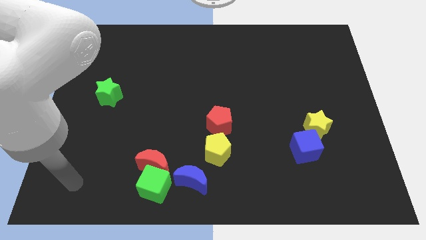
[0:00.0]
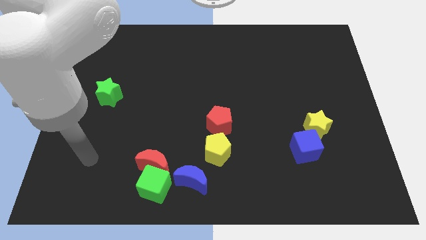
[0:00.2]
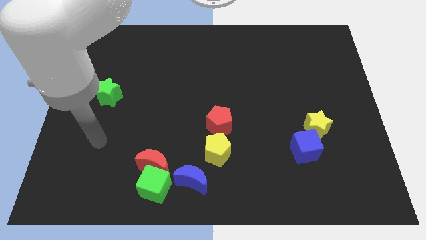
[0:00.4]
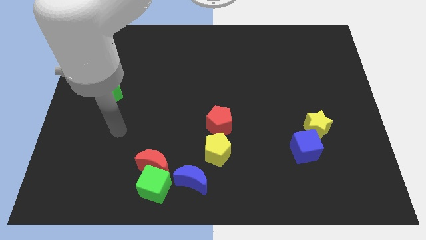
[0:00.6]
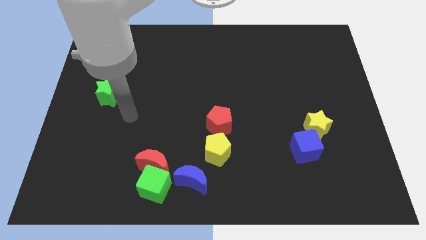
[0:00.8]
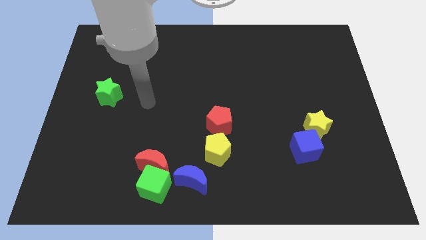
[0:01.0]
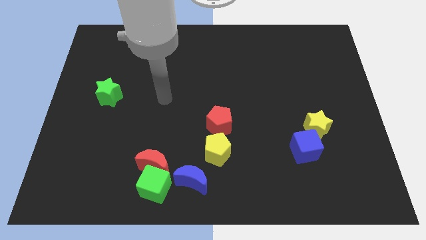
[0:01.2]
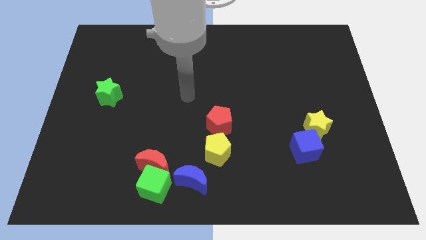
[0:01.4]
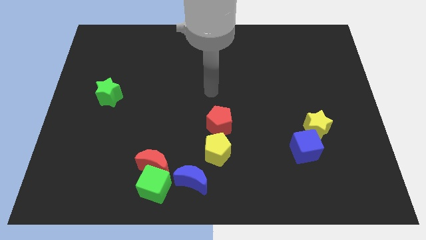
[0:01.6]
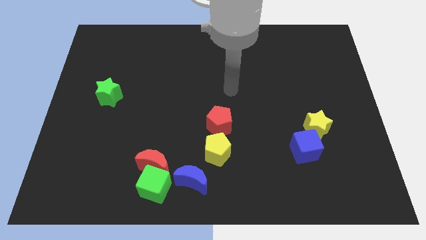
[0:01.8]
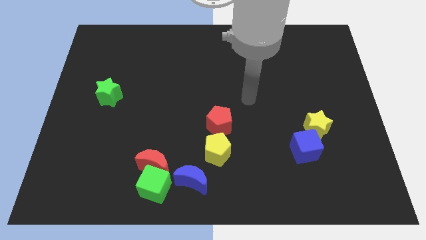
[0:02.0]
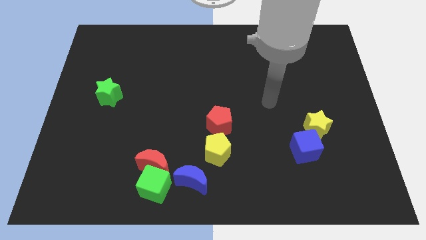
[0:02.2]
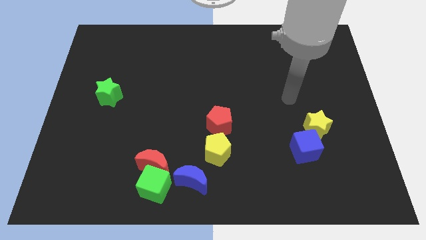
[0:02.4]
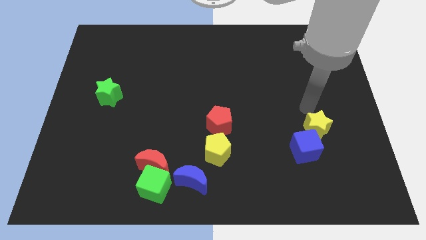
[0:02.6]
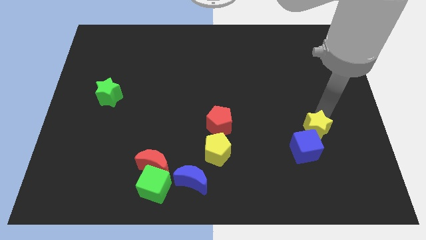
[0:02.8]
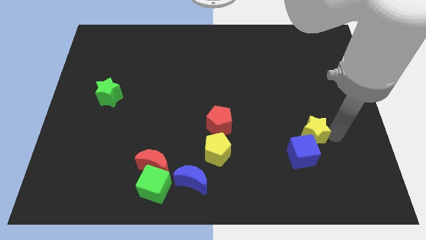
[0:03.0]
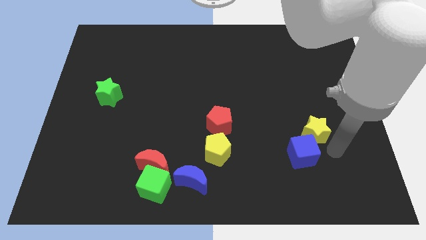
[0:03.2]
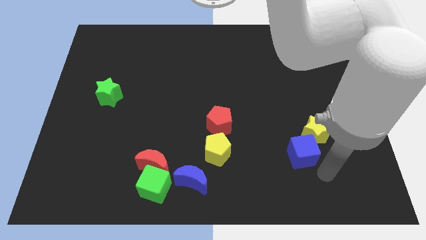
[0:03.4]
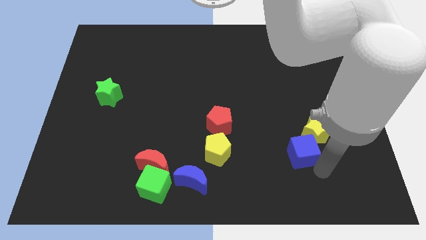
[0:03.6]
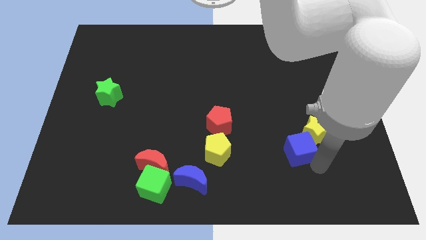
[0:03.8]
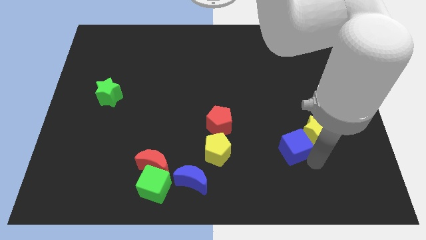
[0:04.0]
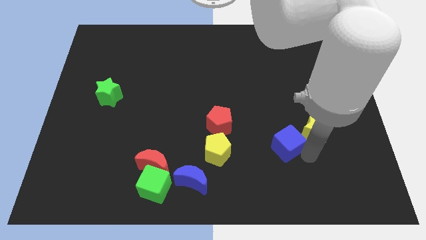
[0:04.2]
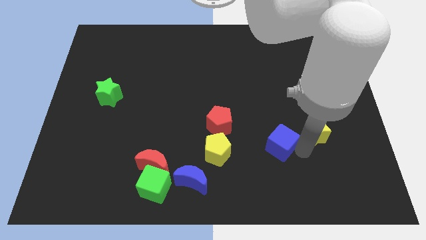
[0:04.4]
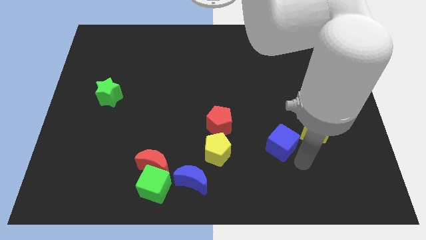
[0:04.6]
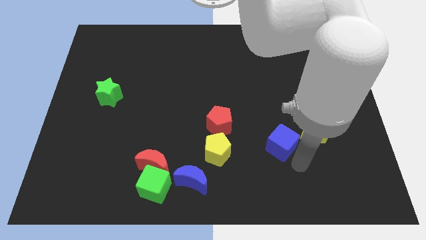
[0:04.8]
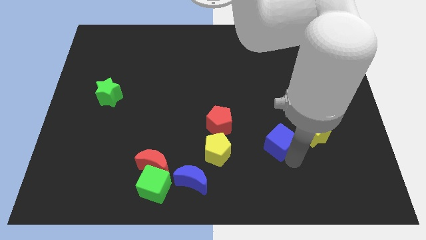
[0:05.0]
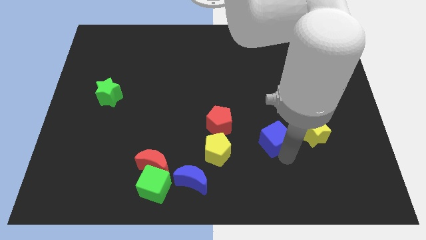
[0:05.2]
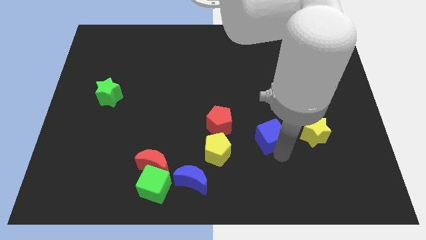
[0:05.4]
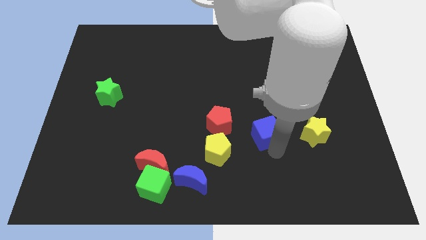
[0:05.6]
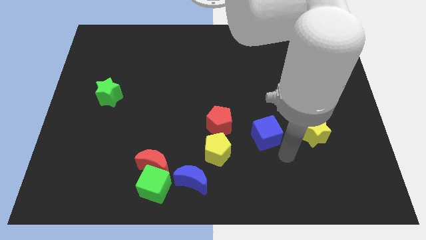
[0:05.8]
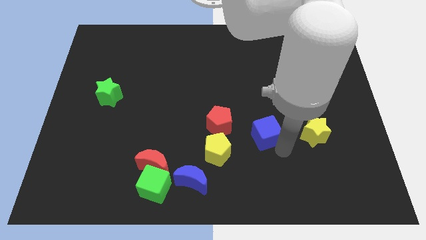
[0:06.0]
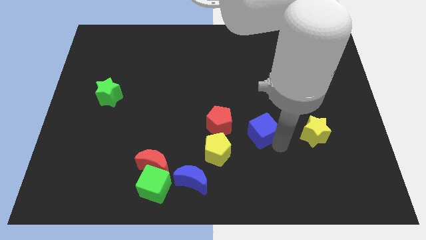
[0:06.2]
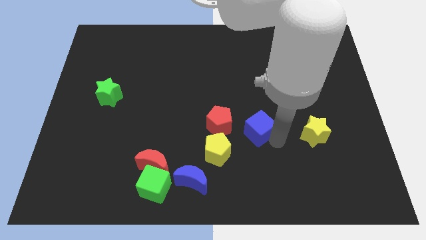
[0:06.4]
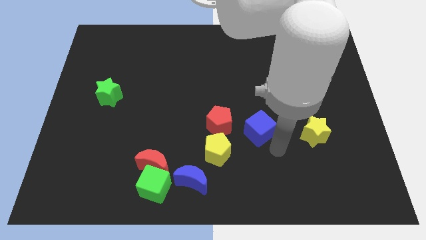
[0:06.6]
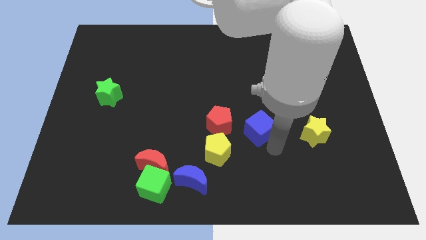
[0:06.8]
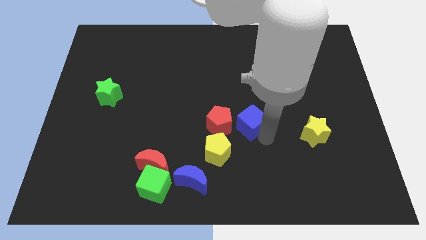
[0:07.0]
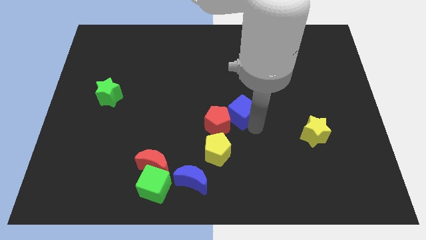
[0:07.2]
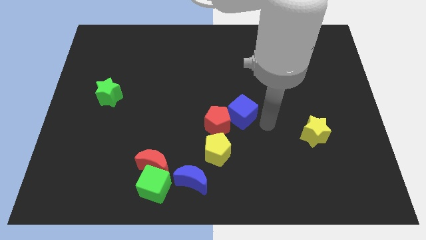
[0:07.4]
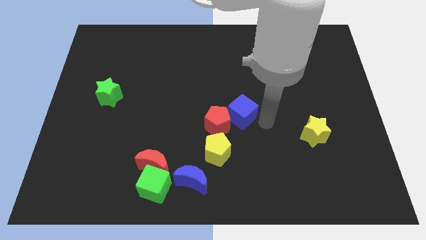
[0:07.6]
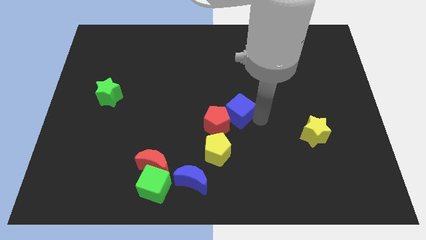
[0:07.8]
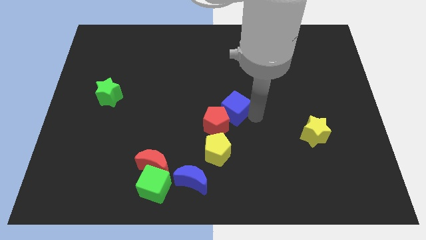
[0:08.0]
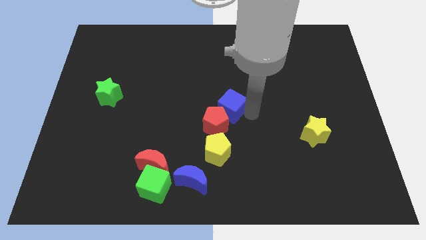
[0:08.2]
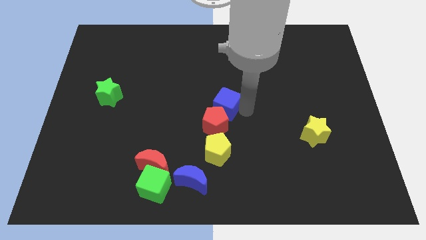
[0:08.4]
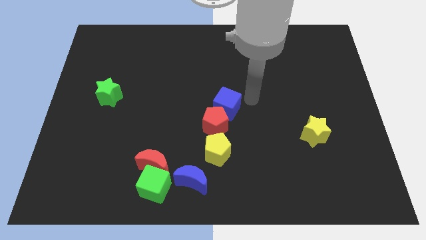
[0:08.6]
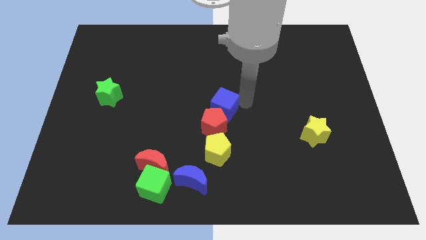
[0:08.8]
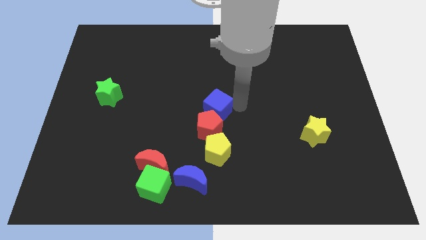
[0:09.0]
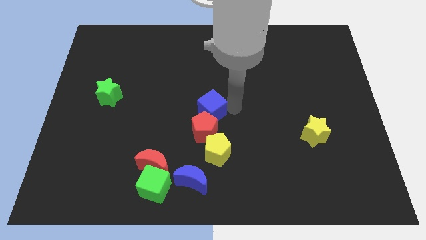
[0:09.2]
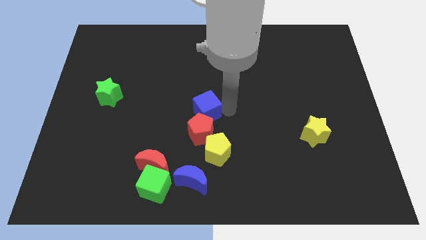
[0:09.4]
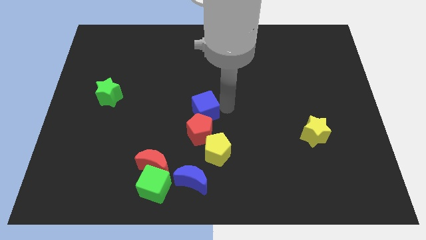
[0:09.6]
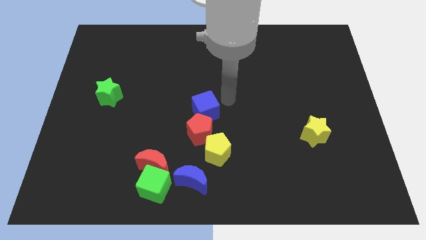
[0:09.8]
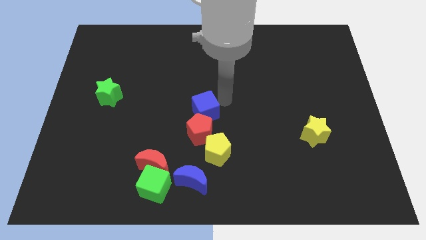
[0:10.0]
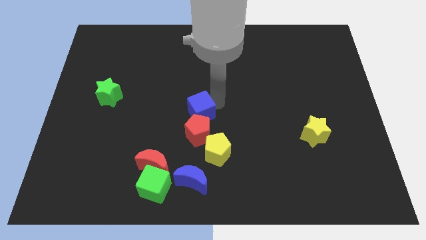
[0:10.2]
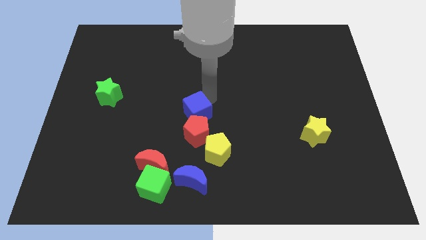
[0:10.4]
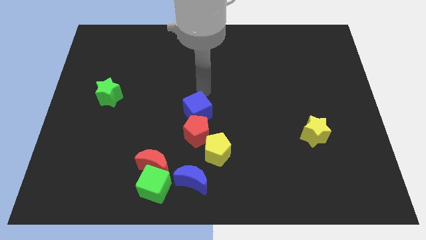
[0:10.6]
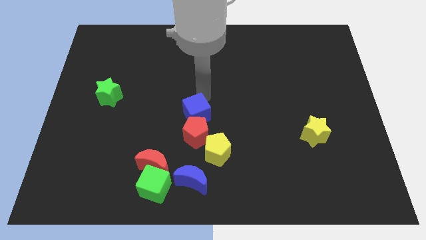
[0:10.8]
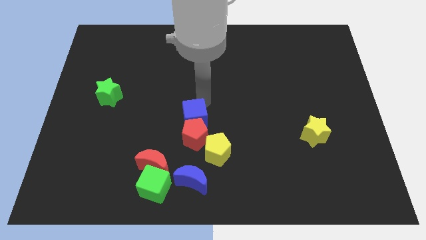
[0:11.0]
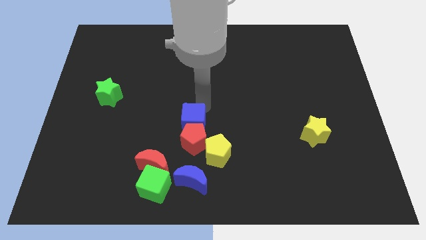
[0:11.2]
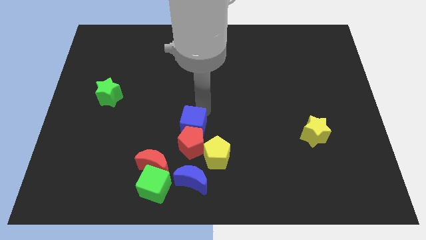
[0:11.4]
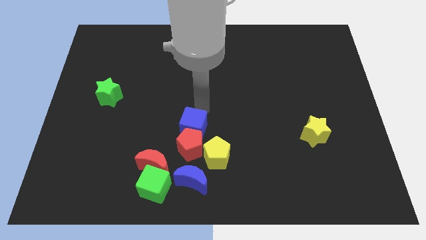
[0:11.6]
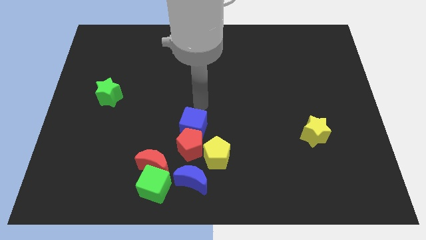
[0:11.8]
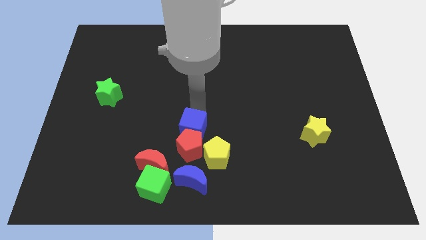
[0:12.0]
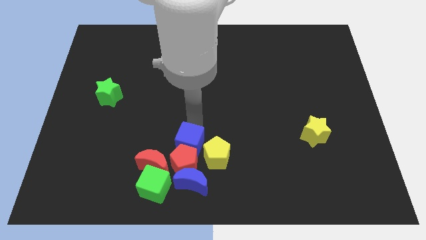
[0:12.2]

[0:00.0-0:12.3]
put the blue cube to the top right of the green cube

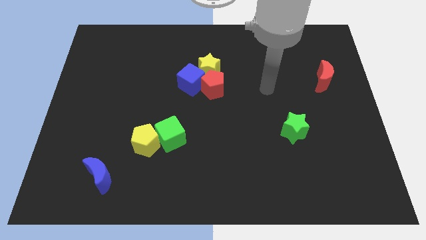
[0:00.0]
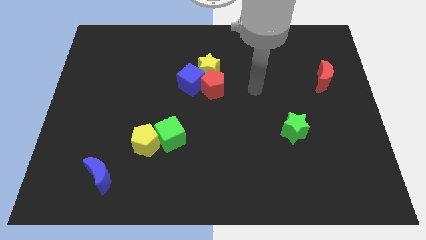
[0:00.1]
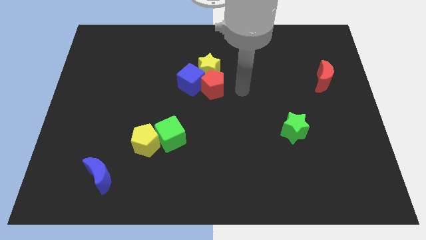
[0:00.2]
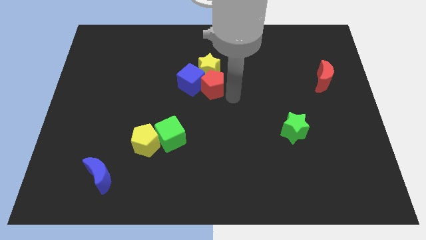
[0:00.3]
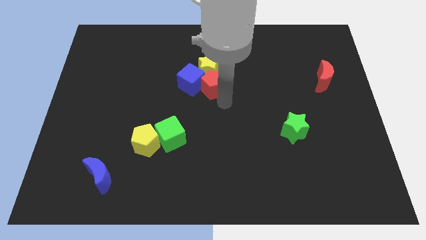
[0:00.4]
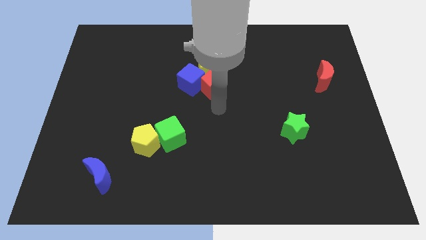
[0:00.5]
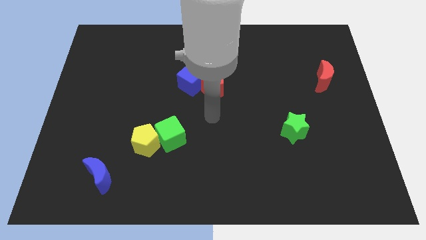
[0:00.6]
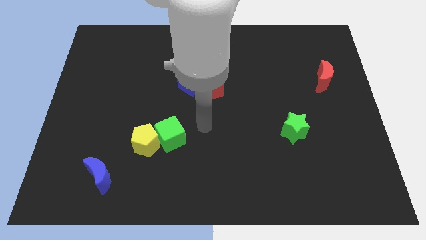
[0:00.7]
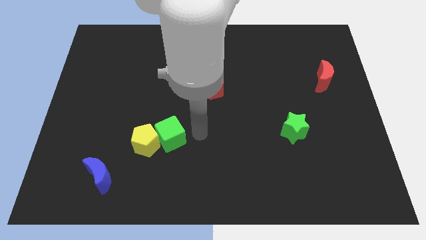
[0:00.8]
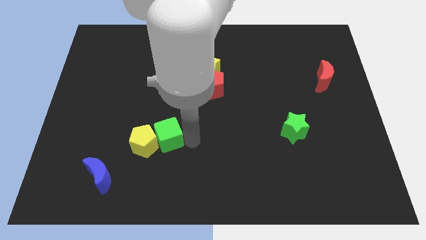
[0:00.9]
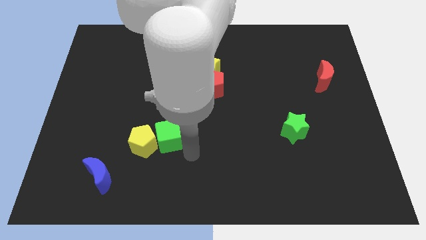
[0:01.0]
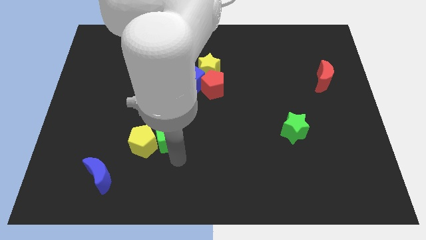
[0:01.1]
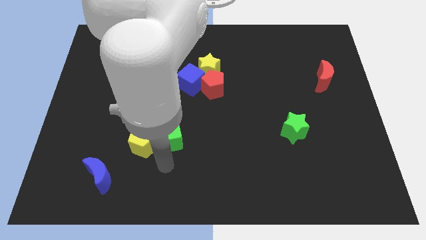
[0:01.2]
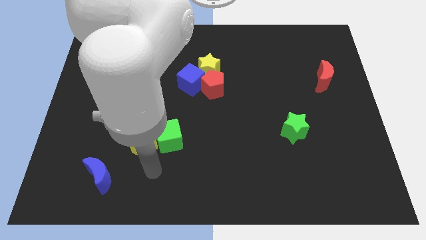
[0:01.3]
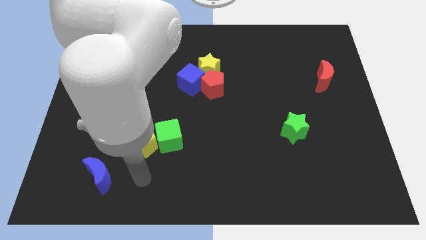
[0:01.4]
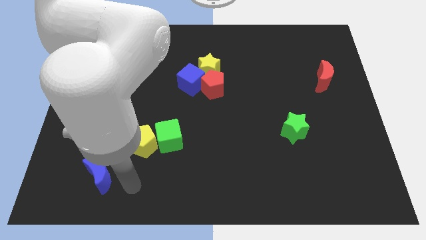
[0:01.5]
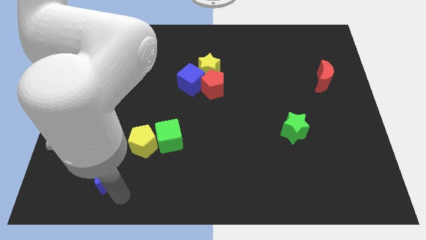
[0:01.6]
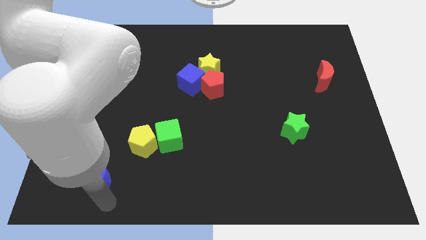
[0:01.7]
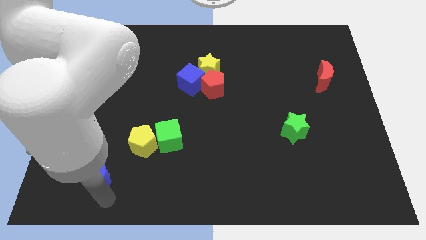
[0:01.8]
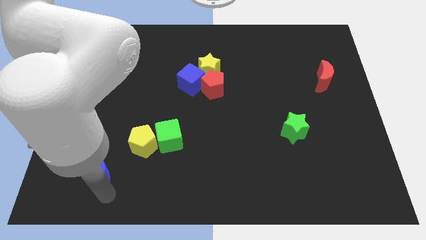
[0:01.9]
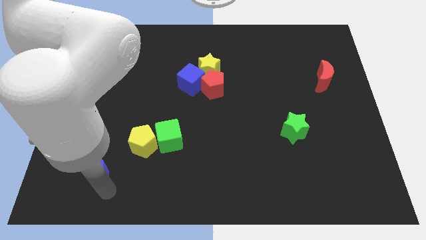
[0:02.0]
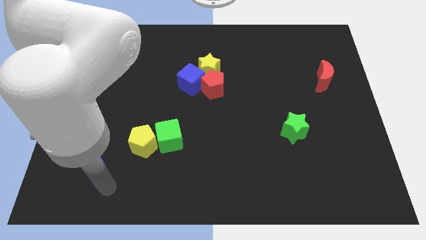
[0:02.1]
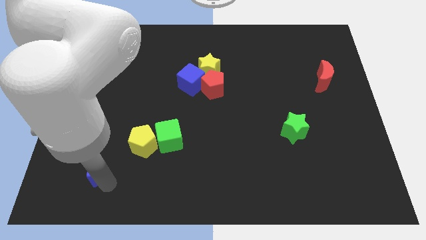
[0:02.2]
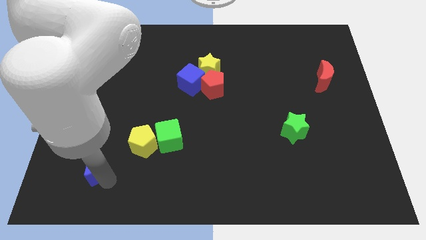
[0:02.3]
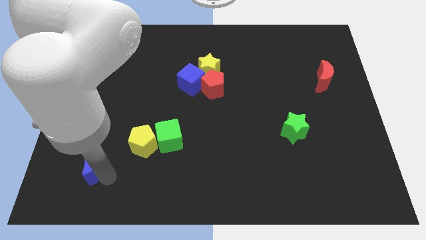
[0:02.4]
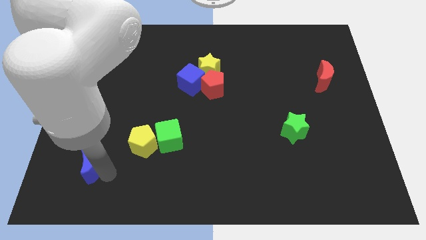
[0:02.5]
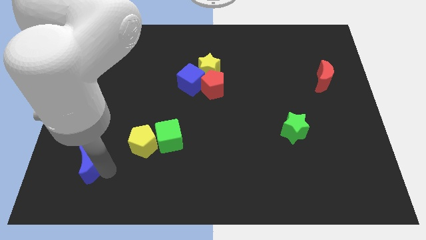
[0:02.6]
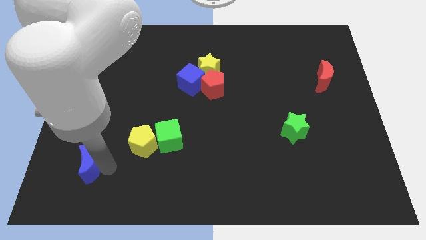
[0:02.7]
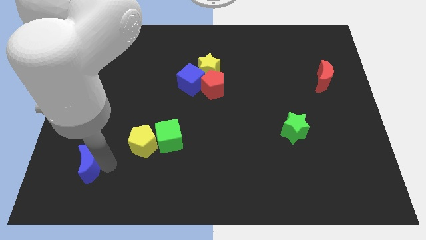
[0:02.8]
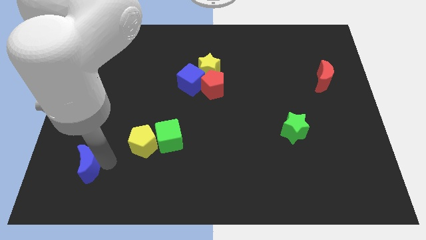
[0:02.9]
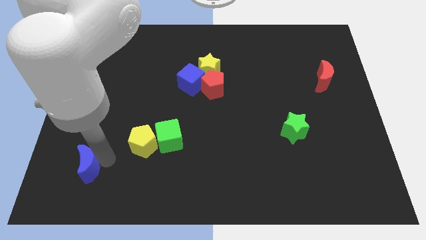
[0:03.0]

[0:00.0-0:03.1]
push the blue moon just left of the yellow pentagon
